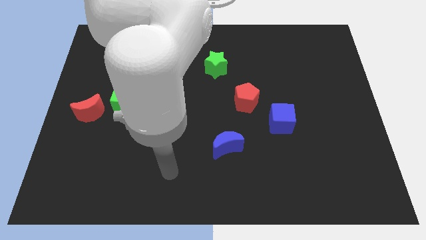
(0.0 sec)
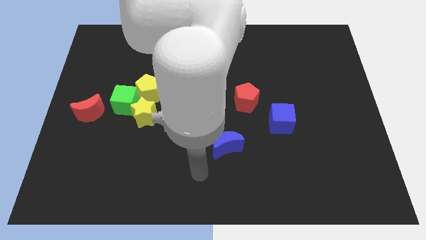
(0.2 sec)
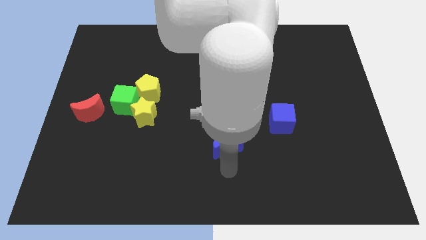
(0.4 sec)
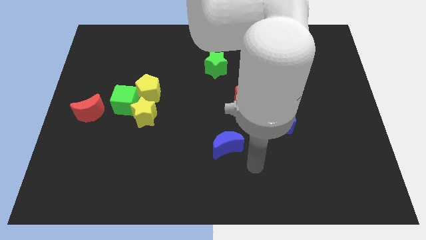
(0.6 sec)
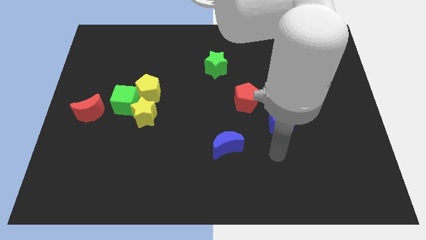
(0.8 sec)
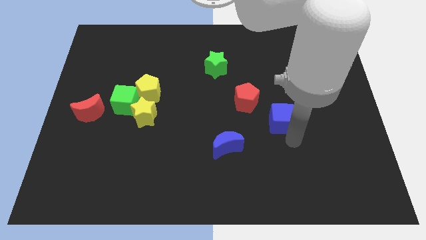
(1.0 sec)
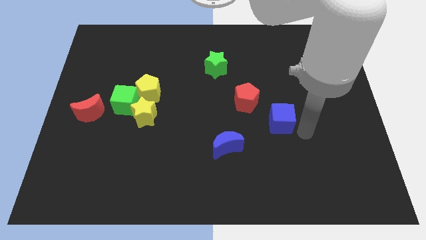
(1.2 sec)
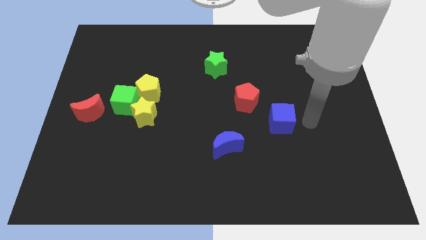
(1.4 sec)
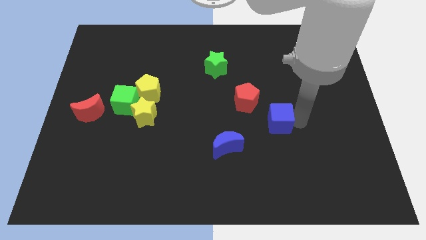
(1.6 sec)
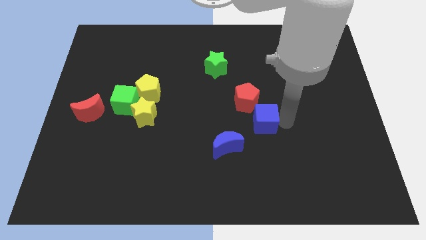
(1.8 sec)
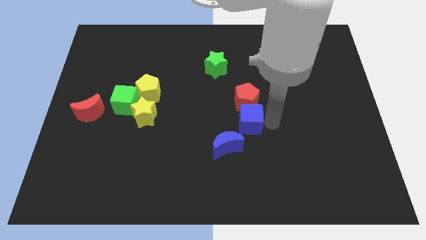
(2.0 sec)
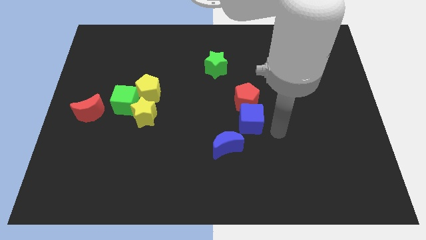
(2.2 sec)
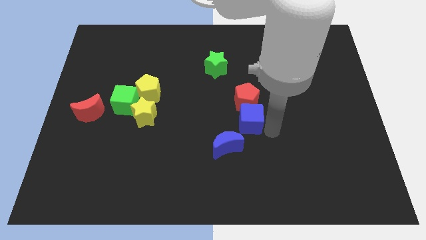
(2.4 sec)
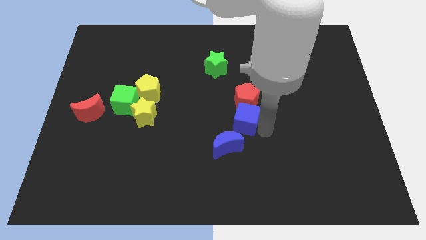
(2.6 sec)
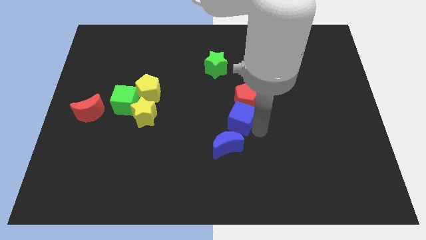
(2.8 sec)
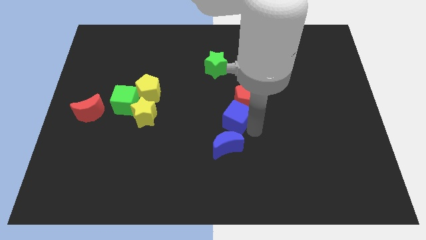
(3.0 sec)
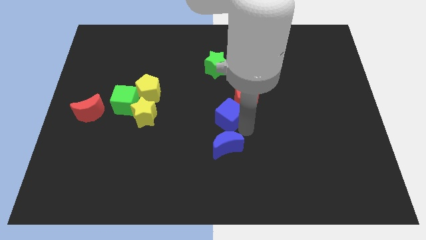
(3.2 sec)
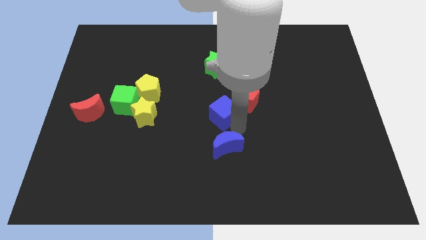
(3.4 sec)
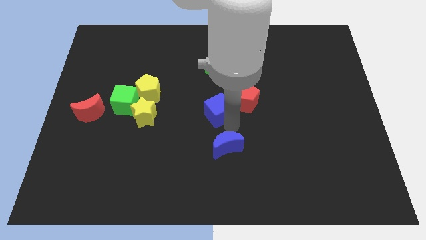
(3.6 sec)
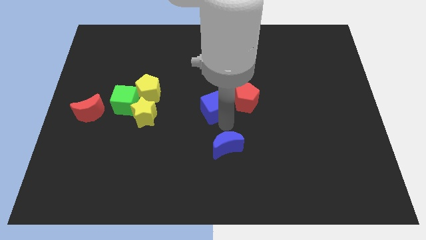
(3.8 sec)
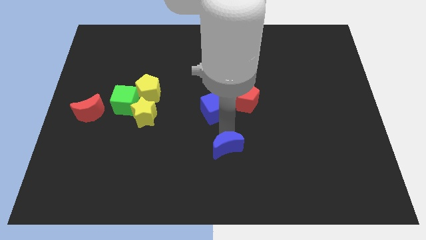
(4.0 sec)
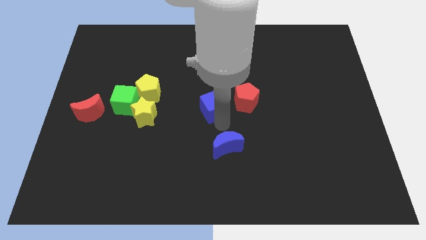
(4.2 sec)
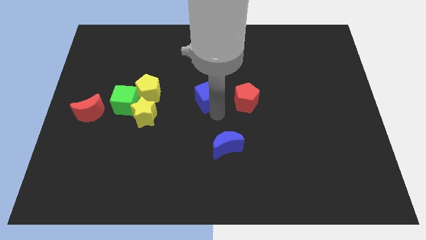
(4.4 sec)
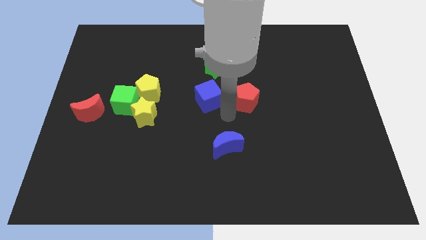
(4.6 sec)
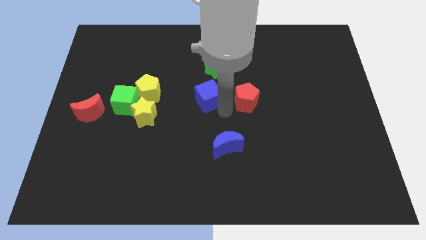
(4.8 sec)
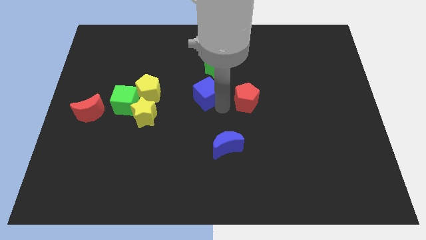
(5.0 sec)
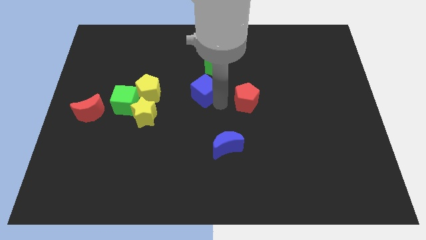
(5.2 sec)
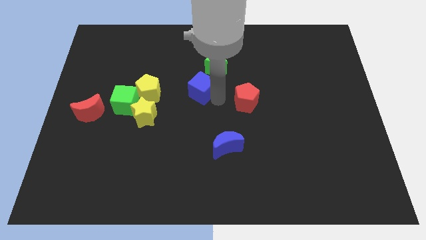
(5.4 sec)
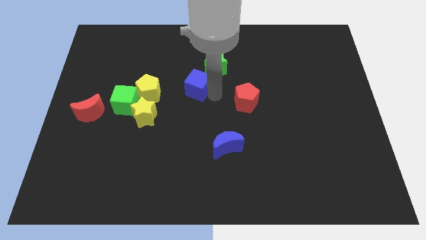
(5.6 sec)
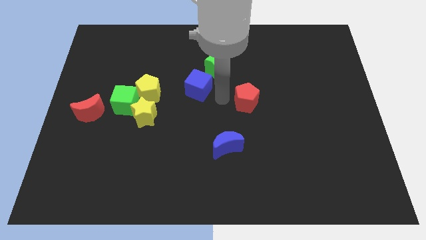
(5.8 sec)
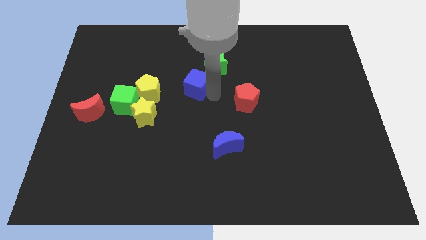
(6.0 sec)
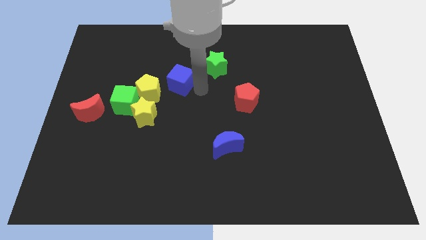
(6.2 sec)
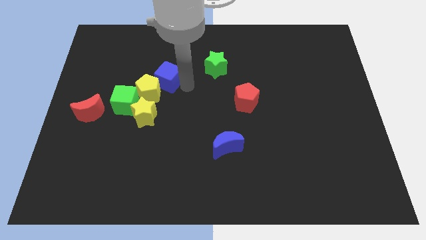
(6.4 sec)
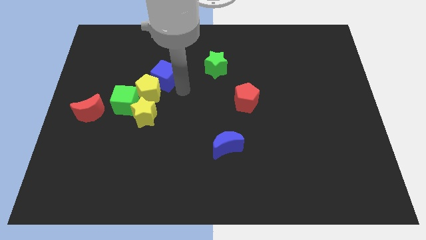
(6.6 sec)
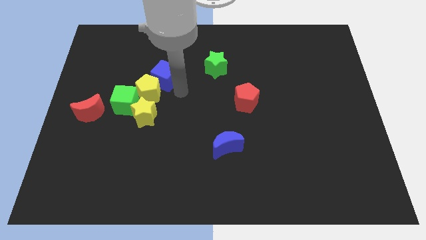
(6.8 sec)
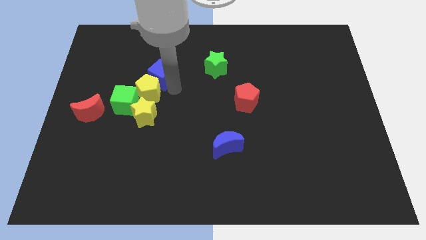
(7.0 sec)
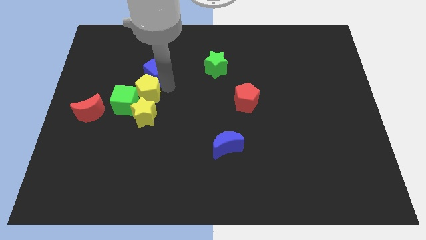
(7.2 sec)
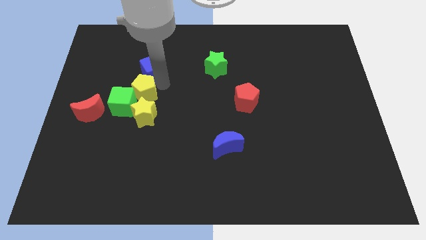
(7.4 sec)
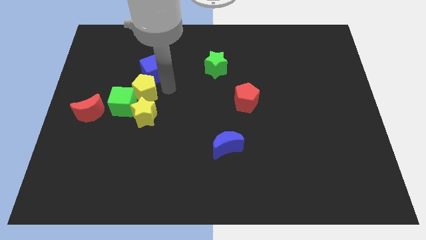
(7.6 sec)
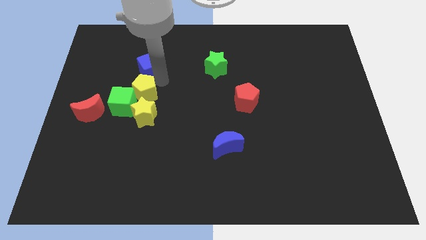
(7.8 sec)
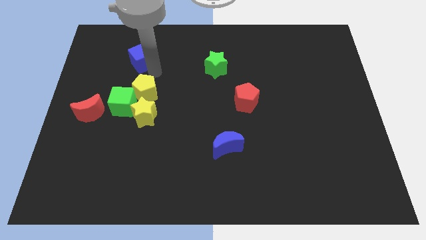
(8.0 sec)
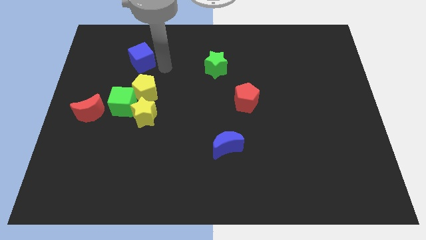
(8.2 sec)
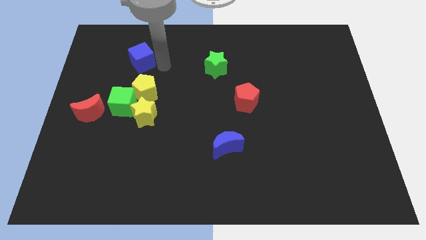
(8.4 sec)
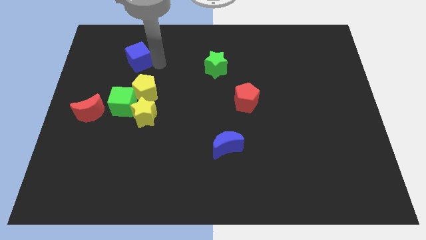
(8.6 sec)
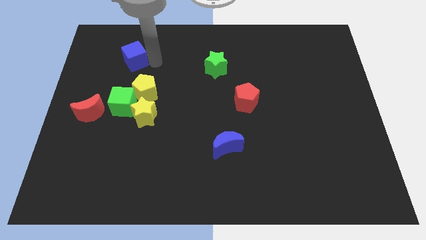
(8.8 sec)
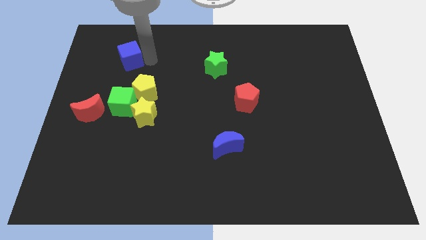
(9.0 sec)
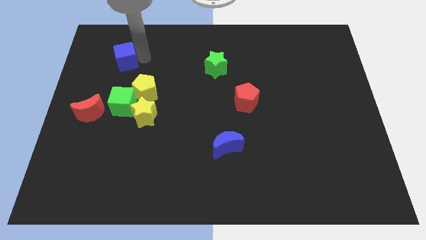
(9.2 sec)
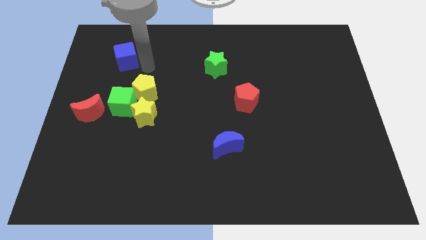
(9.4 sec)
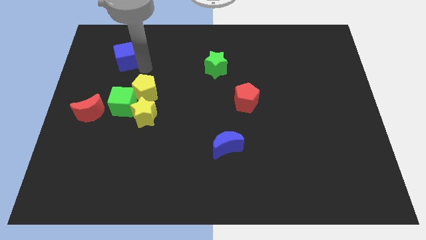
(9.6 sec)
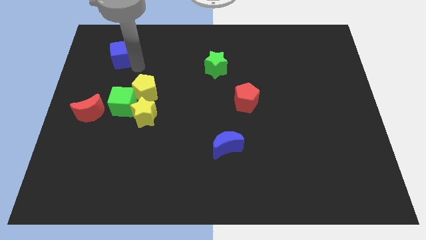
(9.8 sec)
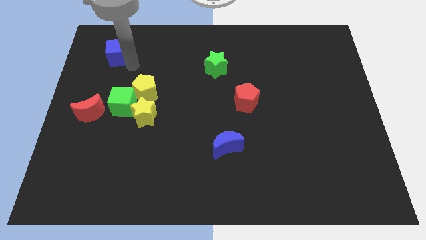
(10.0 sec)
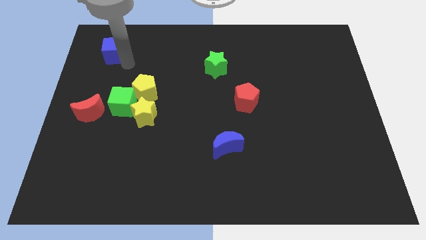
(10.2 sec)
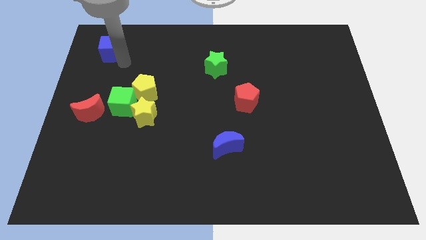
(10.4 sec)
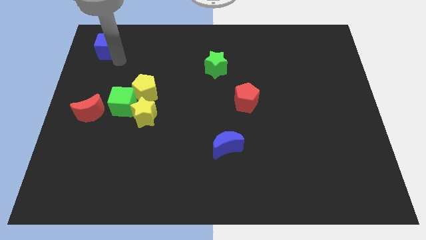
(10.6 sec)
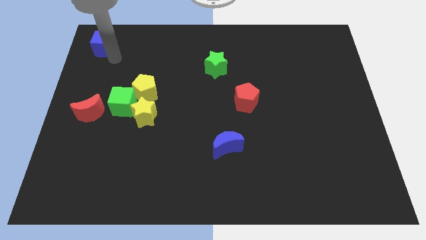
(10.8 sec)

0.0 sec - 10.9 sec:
push the blue cube to the top left
